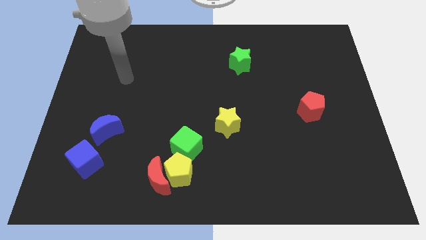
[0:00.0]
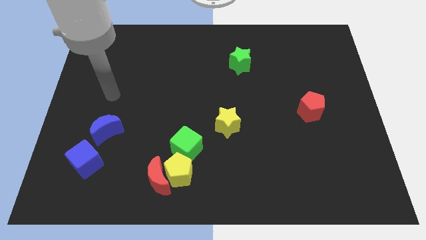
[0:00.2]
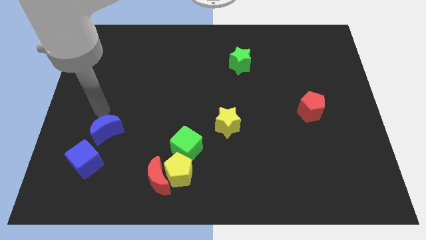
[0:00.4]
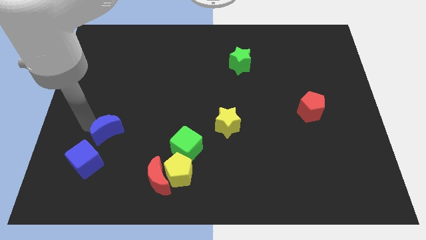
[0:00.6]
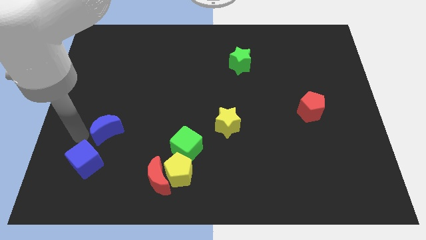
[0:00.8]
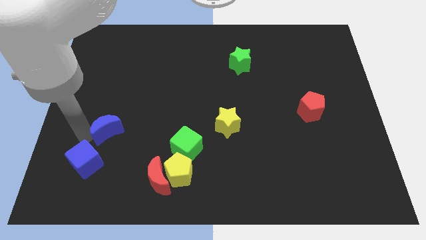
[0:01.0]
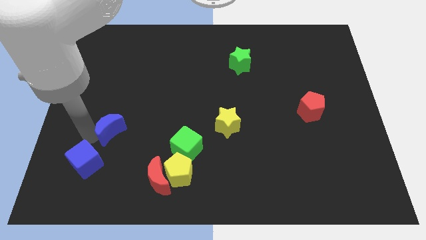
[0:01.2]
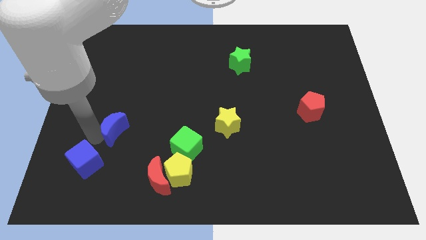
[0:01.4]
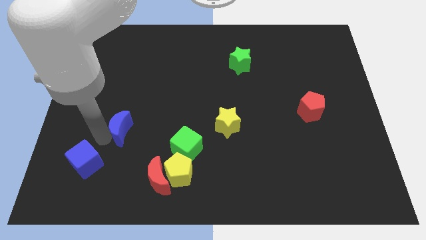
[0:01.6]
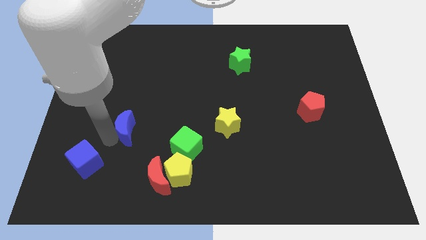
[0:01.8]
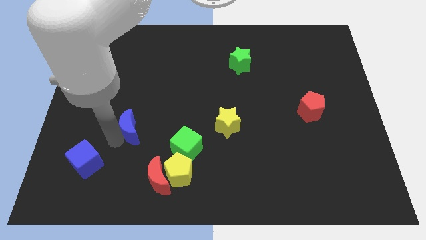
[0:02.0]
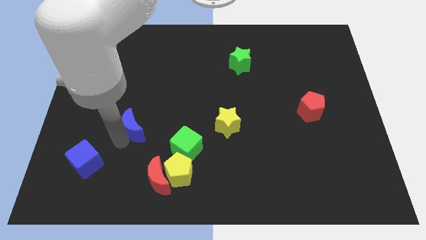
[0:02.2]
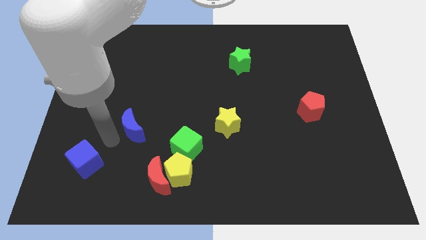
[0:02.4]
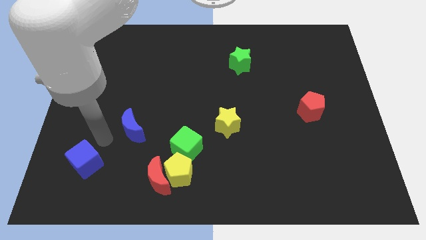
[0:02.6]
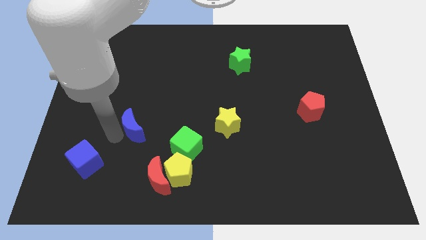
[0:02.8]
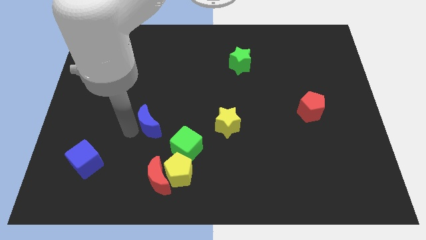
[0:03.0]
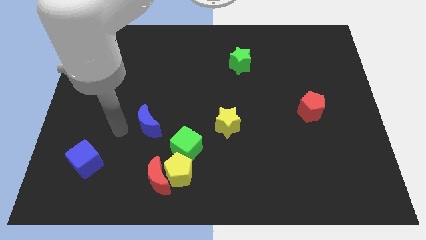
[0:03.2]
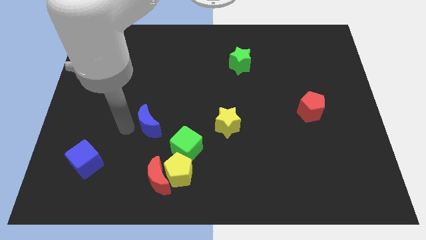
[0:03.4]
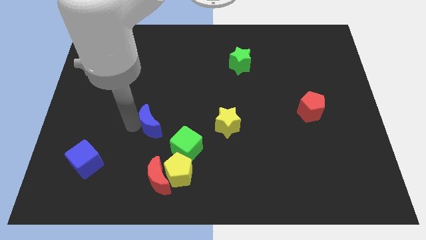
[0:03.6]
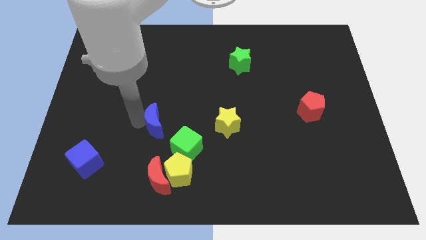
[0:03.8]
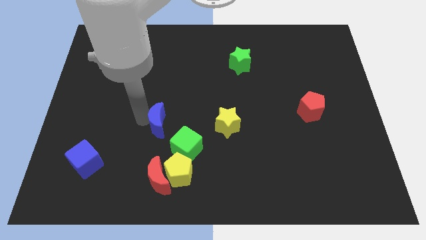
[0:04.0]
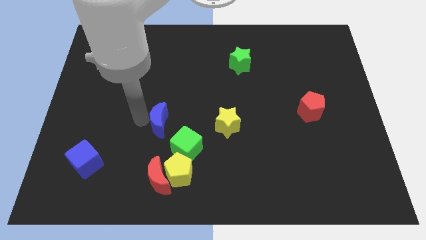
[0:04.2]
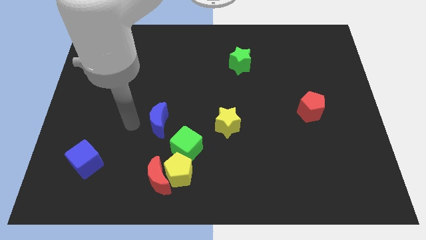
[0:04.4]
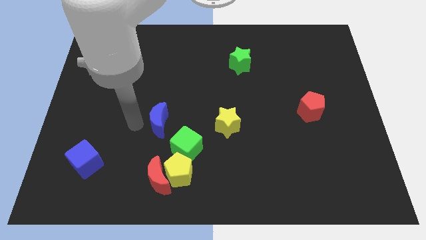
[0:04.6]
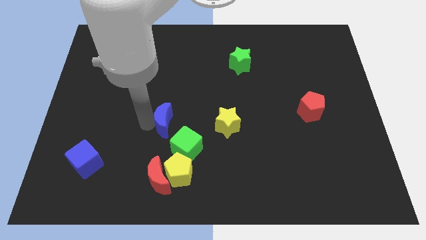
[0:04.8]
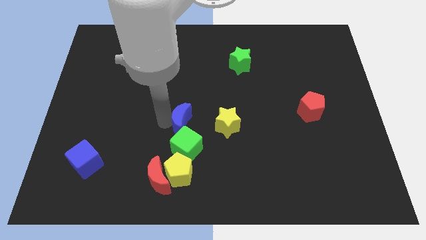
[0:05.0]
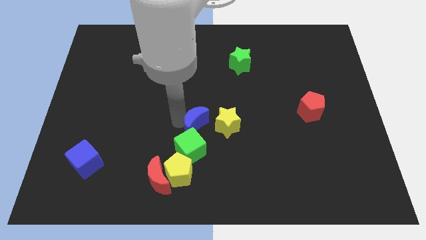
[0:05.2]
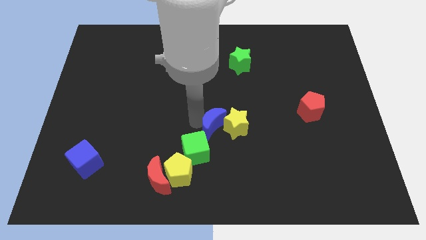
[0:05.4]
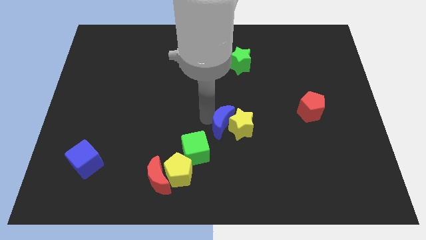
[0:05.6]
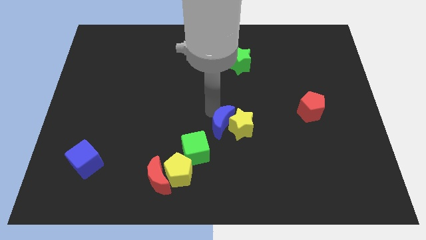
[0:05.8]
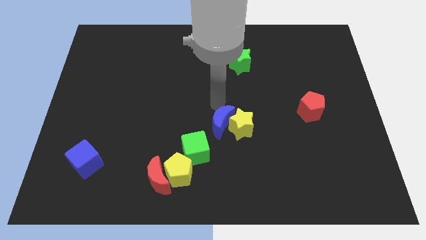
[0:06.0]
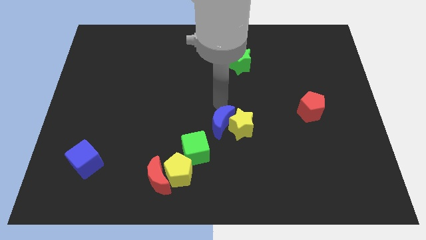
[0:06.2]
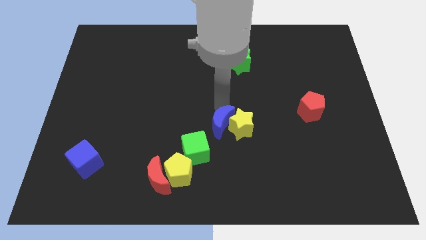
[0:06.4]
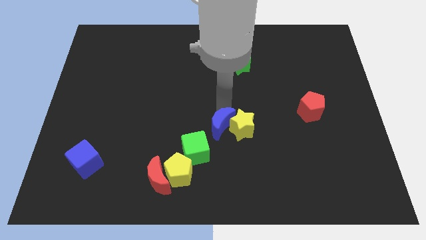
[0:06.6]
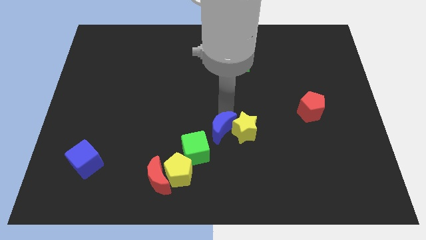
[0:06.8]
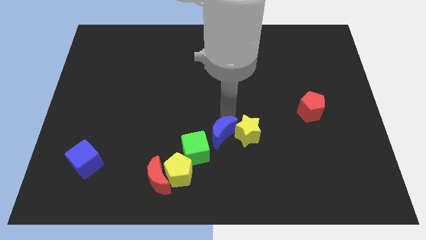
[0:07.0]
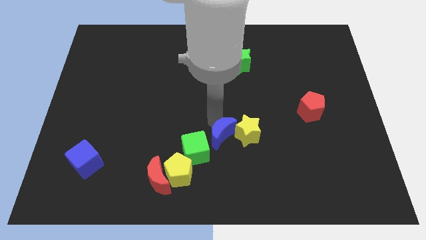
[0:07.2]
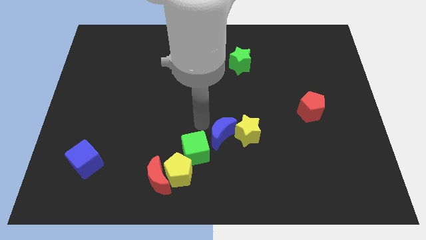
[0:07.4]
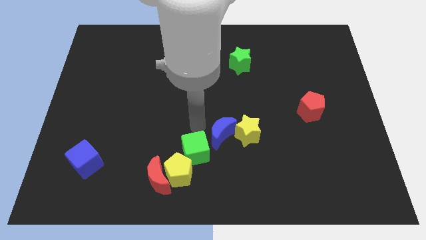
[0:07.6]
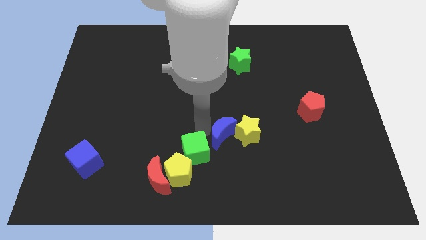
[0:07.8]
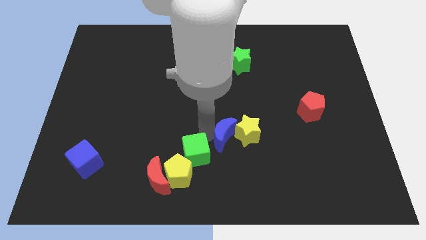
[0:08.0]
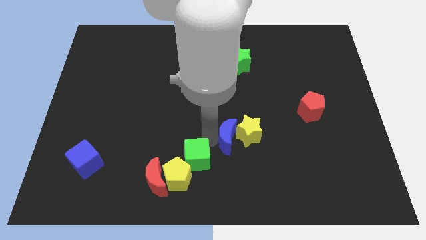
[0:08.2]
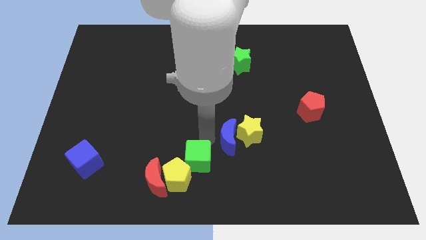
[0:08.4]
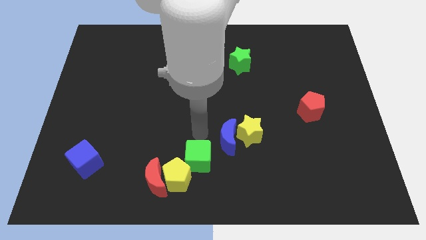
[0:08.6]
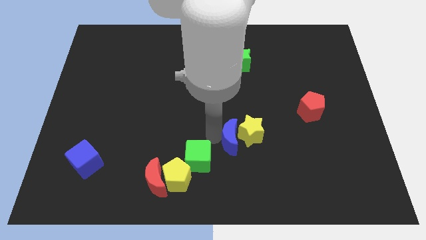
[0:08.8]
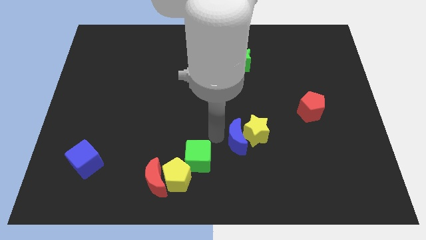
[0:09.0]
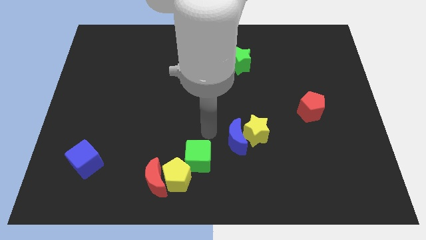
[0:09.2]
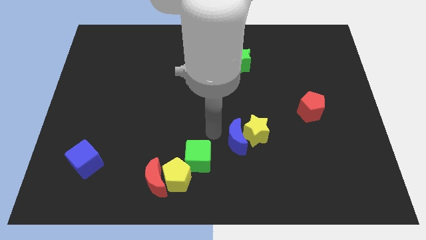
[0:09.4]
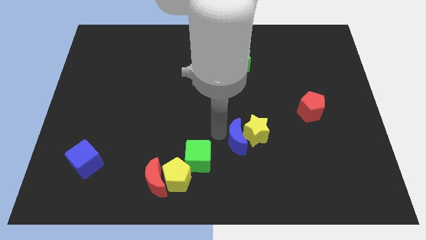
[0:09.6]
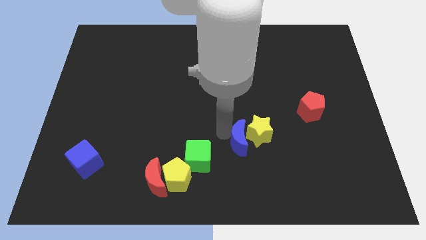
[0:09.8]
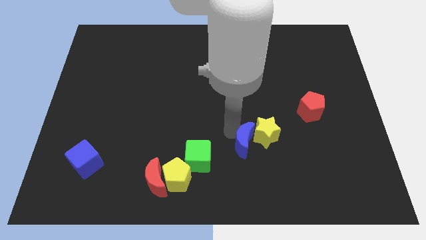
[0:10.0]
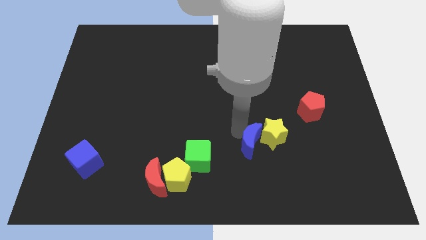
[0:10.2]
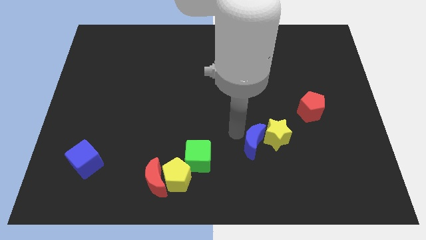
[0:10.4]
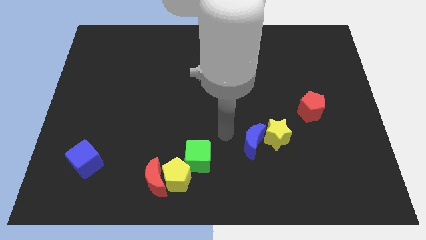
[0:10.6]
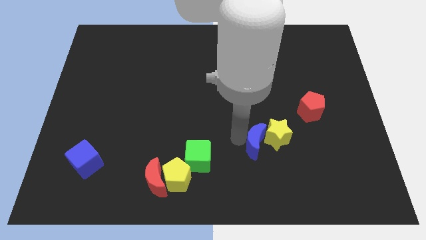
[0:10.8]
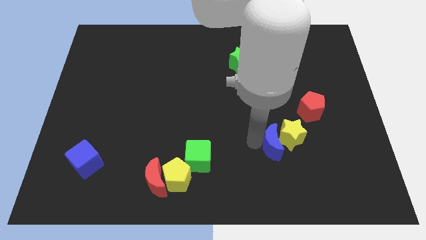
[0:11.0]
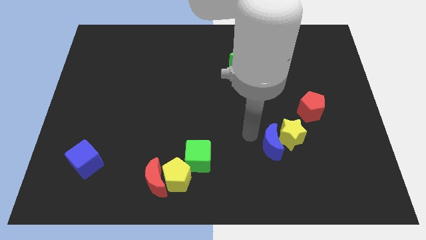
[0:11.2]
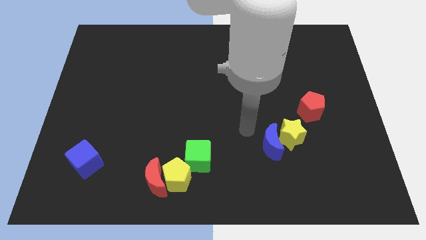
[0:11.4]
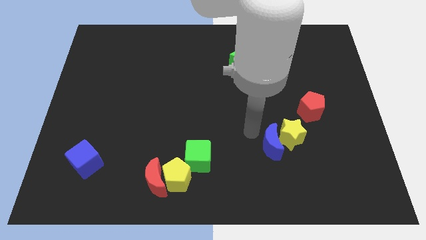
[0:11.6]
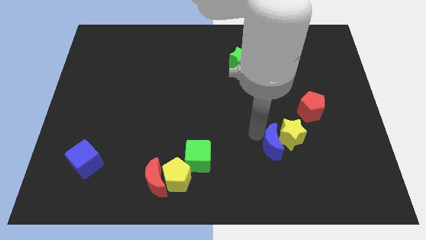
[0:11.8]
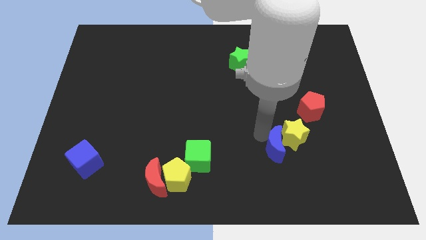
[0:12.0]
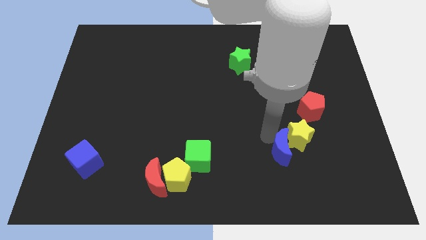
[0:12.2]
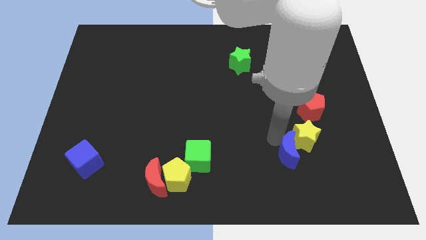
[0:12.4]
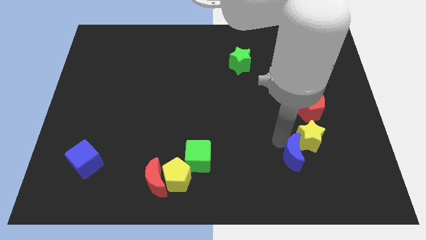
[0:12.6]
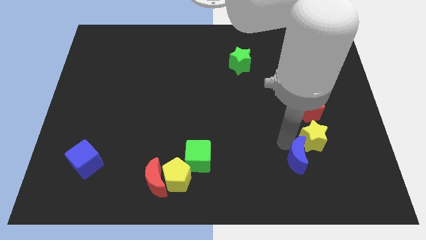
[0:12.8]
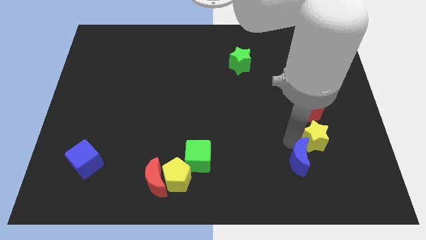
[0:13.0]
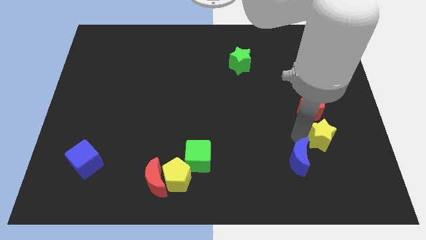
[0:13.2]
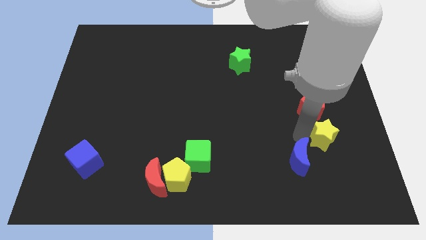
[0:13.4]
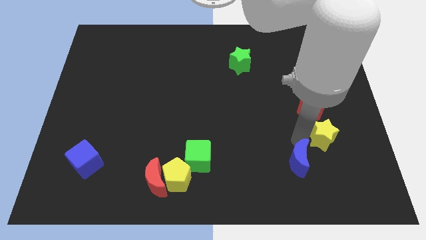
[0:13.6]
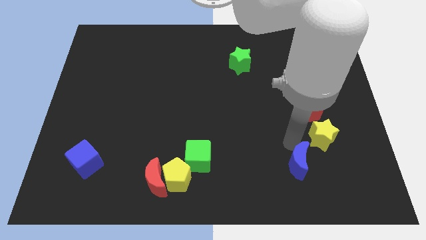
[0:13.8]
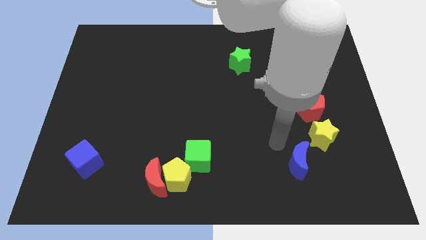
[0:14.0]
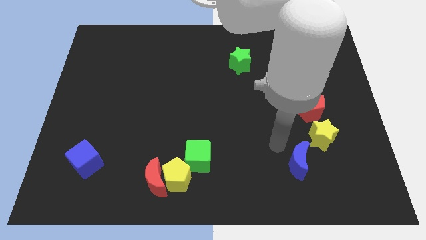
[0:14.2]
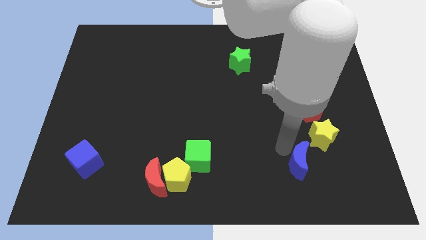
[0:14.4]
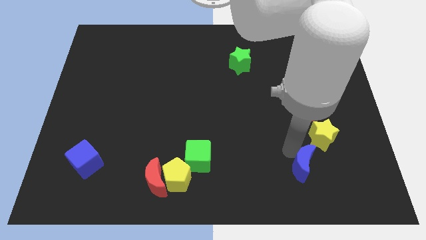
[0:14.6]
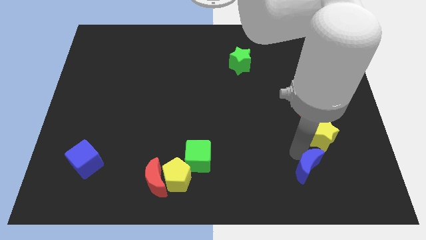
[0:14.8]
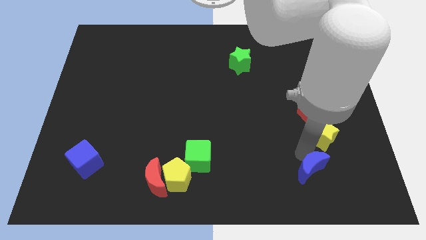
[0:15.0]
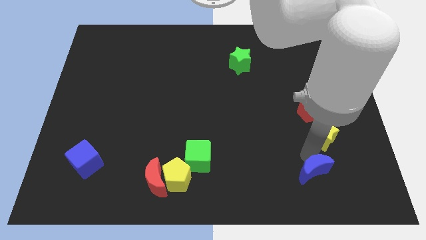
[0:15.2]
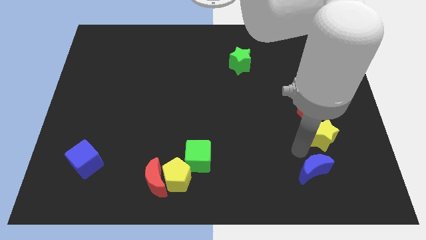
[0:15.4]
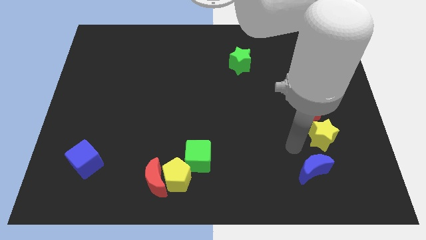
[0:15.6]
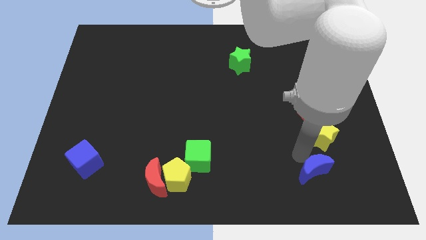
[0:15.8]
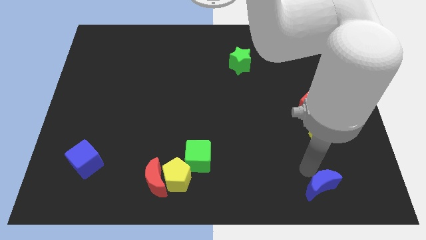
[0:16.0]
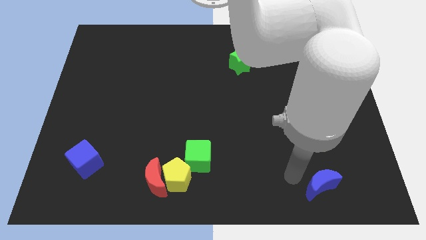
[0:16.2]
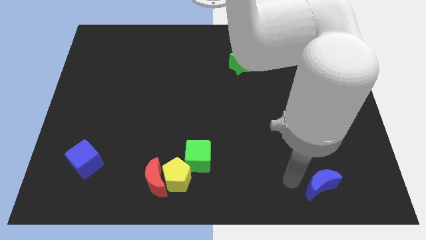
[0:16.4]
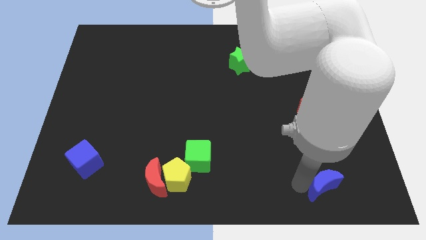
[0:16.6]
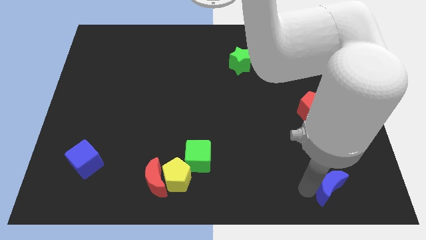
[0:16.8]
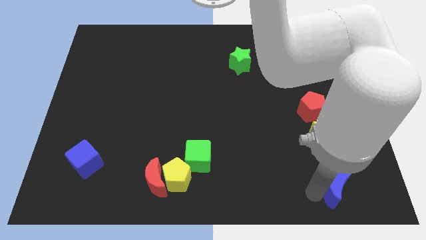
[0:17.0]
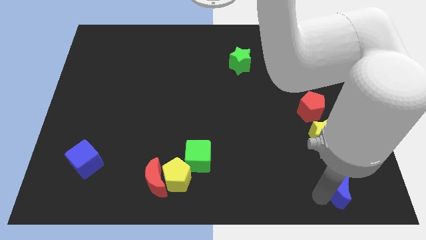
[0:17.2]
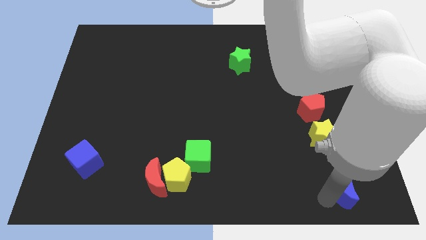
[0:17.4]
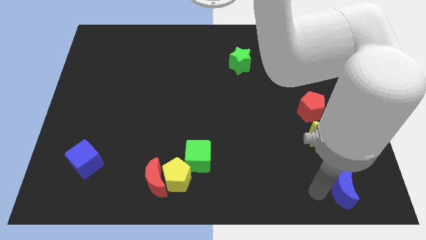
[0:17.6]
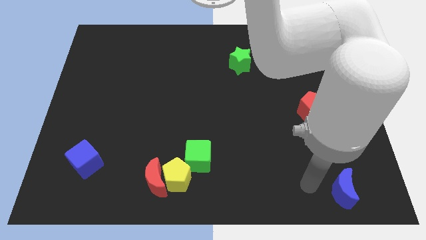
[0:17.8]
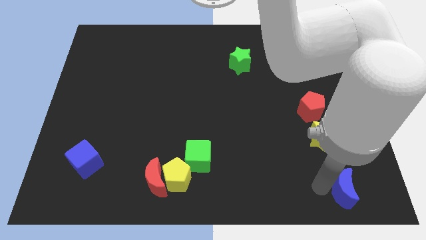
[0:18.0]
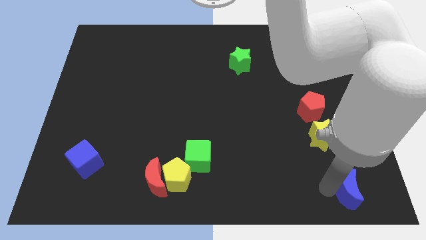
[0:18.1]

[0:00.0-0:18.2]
move the blue moon to the bottom right corner
